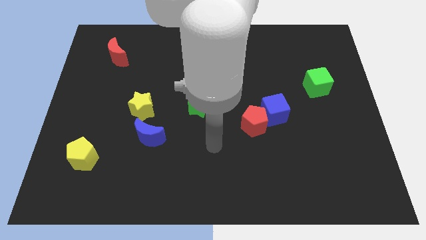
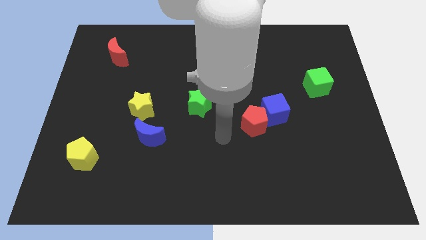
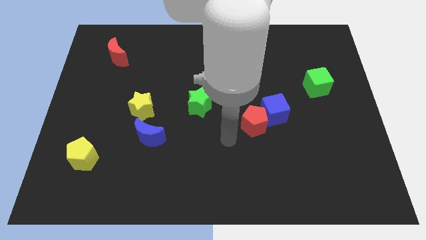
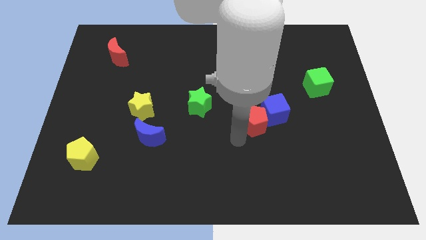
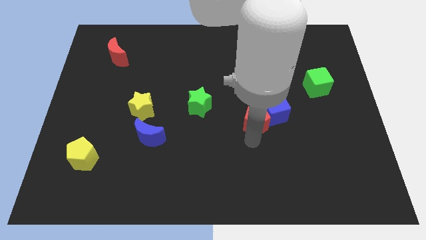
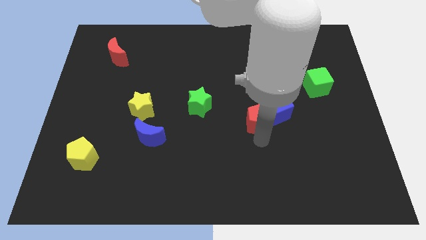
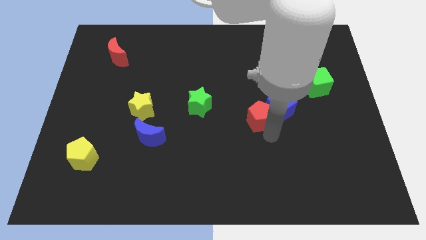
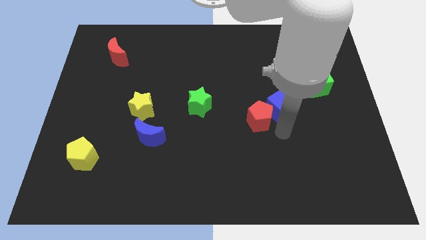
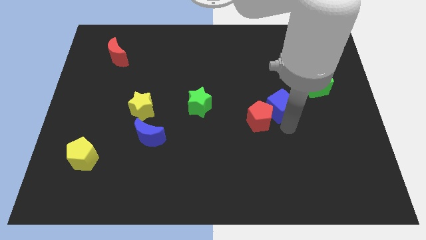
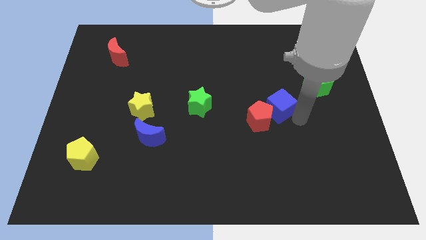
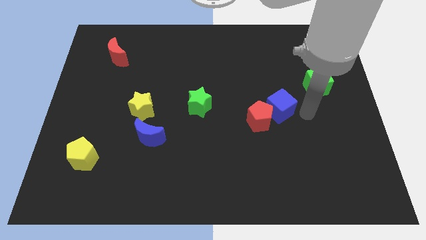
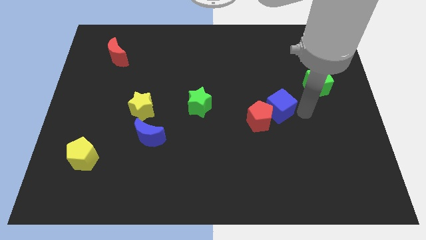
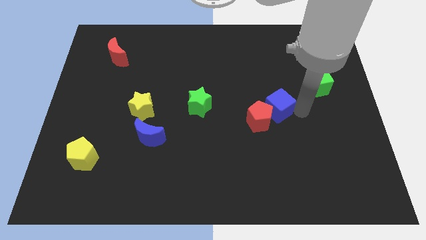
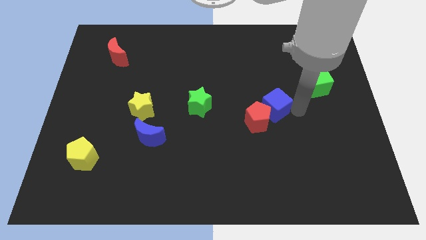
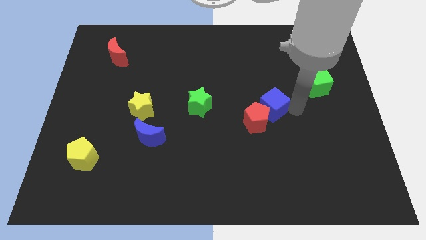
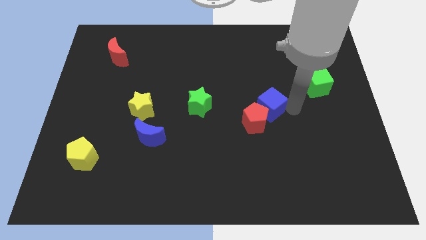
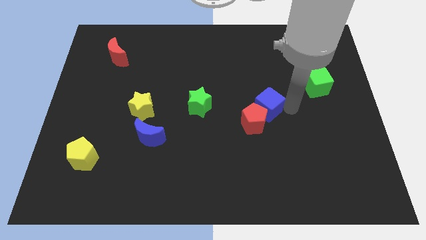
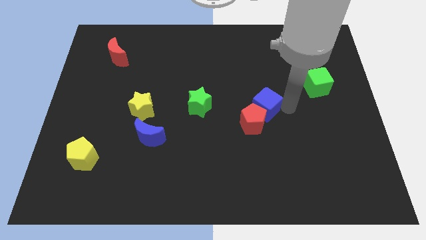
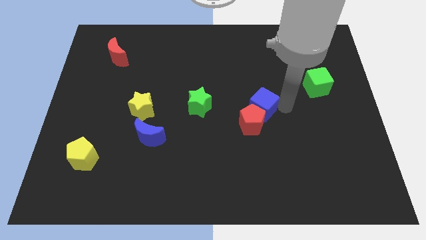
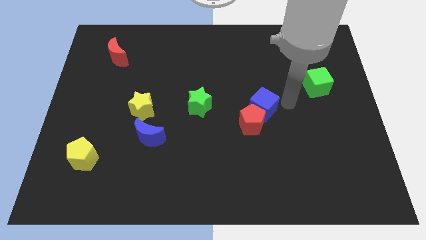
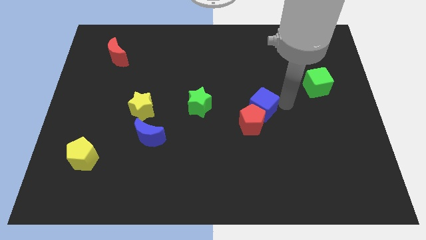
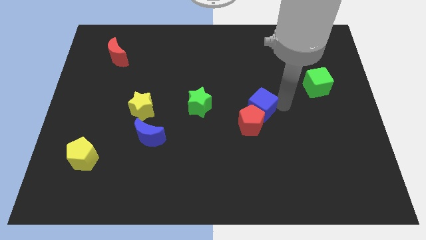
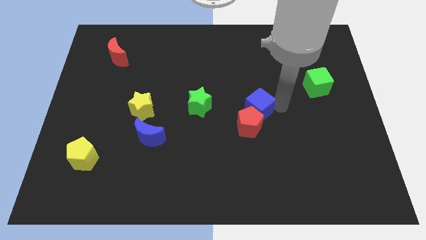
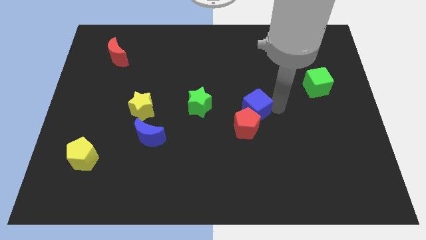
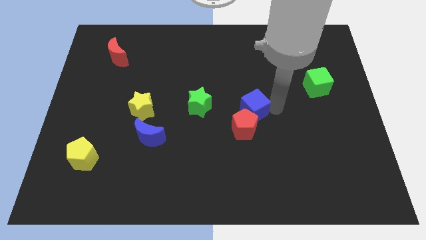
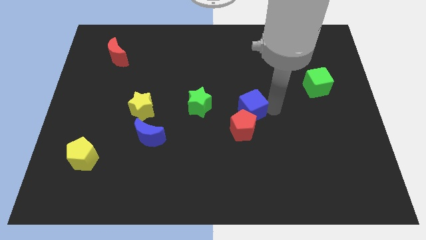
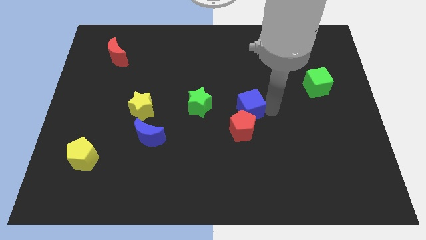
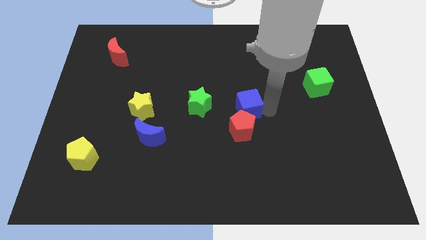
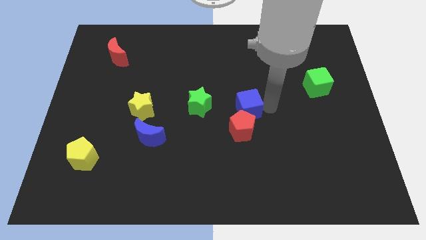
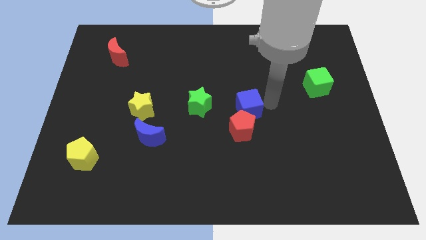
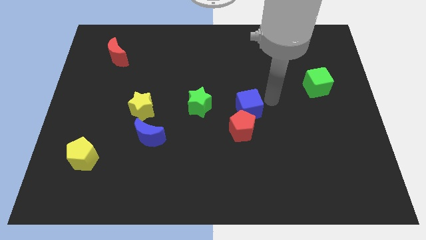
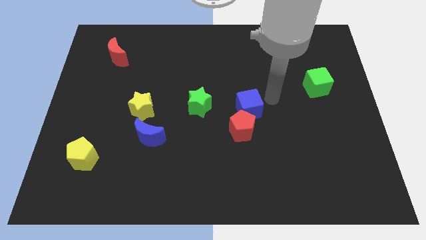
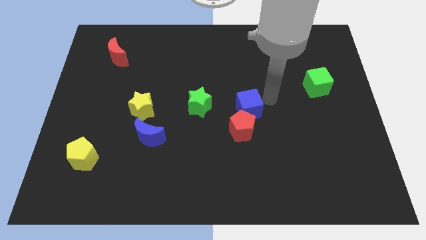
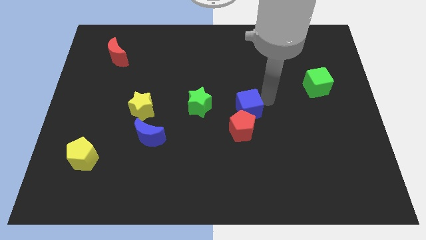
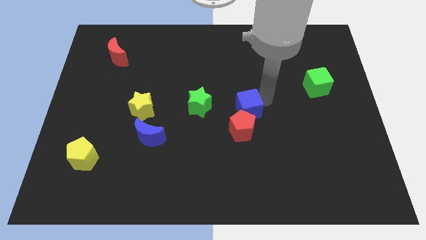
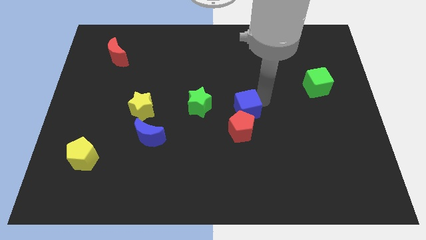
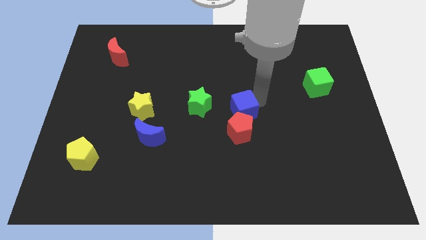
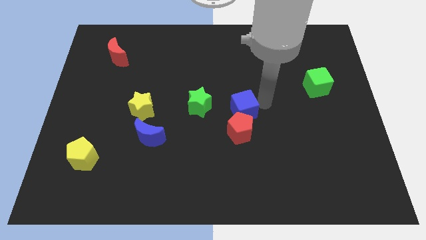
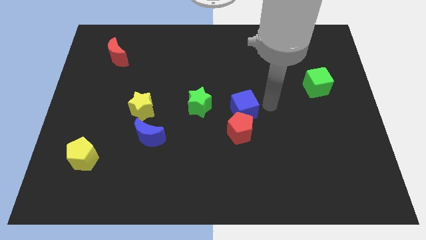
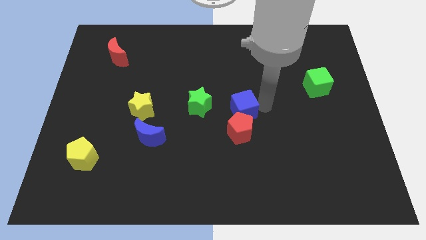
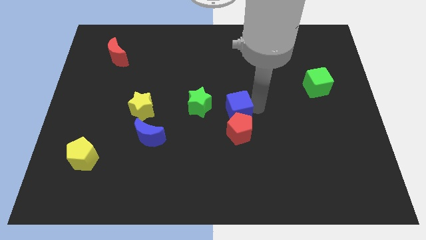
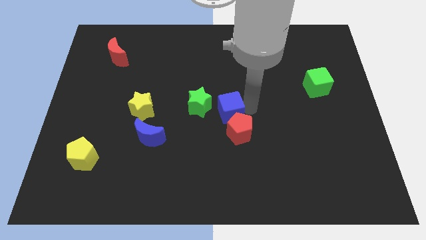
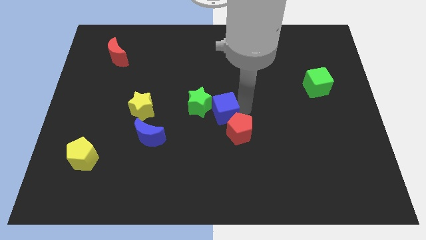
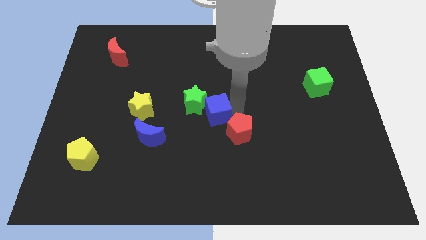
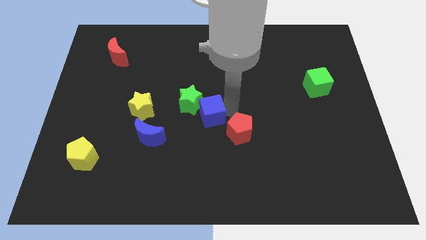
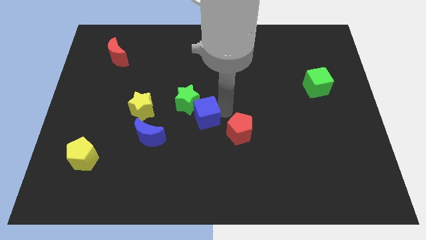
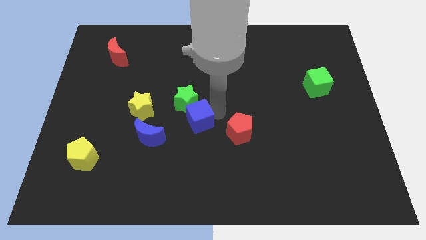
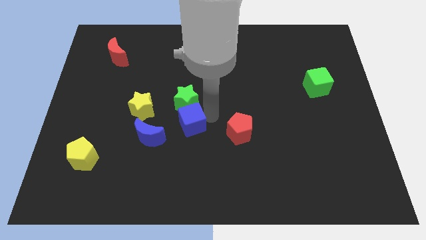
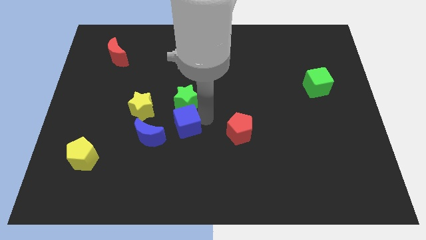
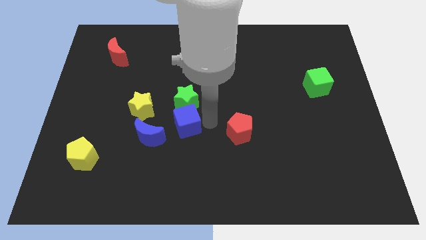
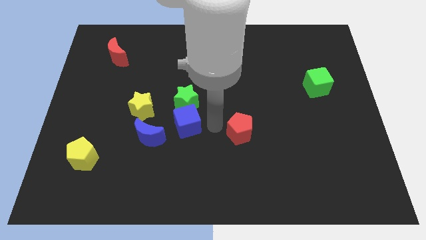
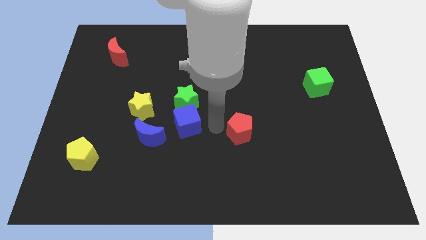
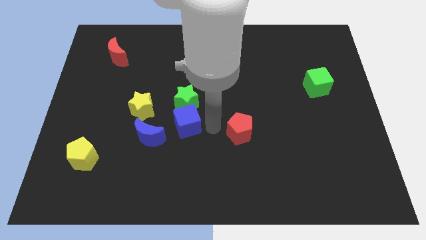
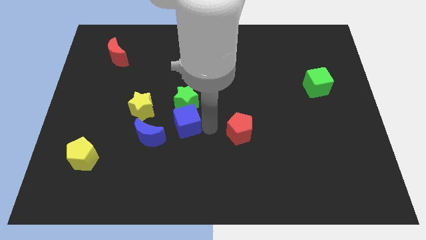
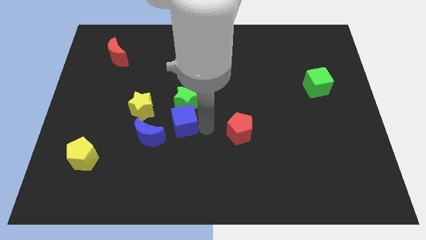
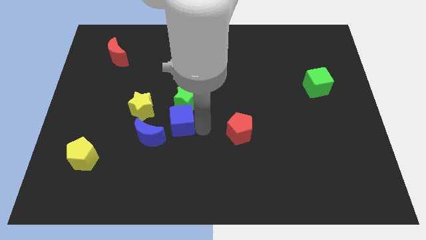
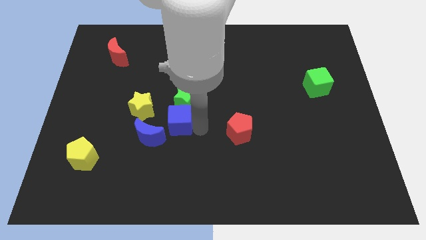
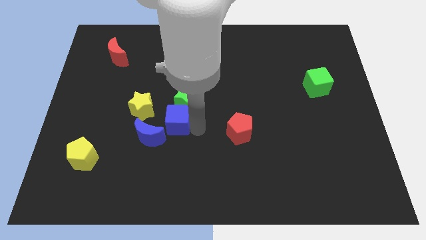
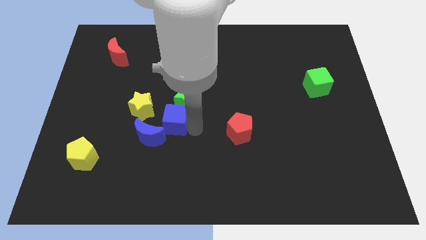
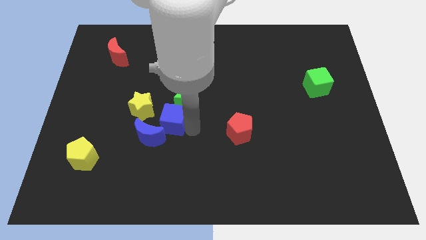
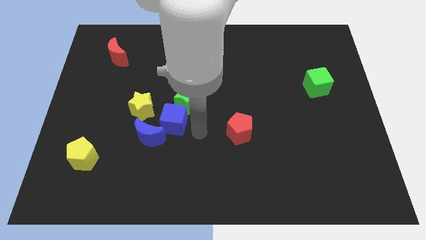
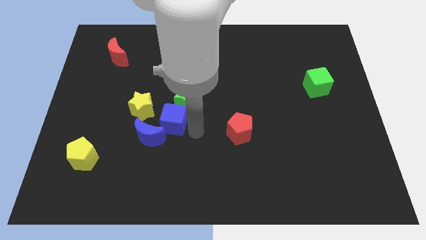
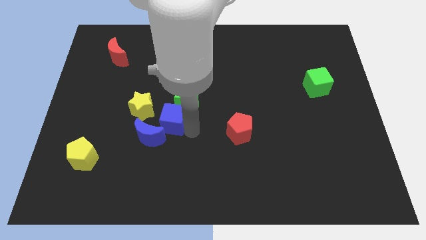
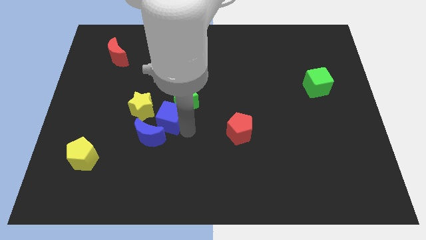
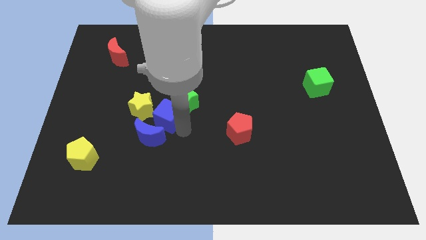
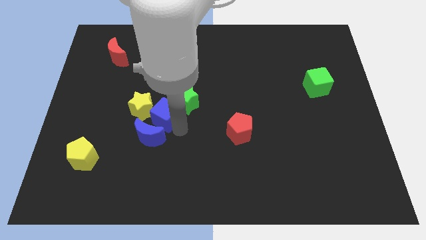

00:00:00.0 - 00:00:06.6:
slide the blue cube next to the yellow star
